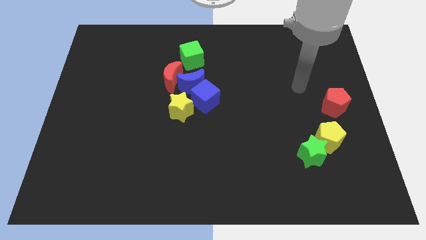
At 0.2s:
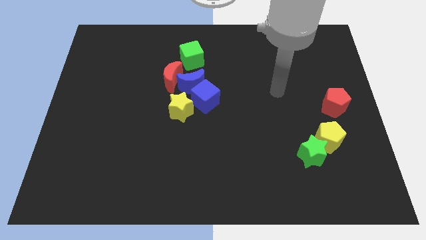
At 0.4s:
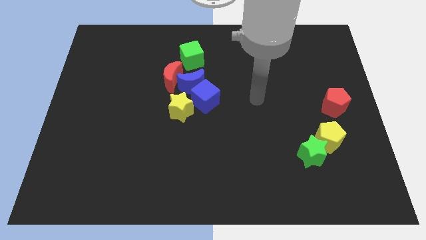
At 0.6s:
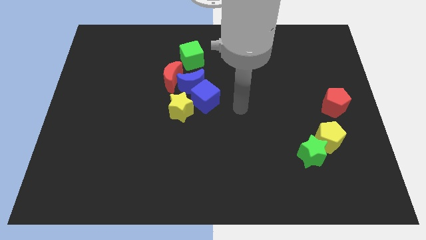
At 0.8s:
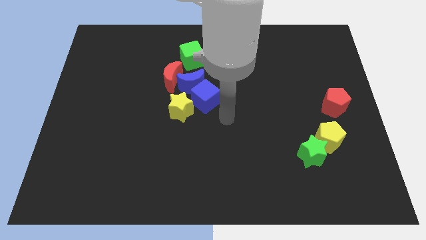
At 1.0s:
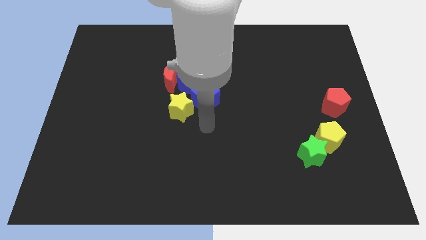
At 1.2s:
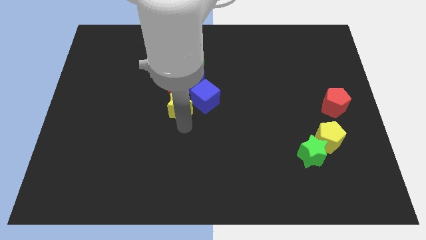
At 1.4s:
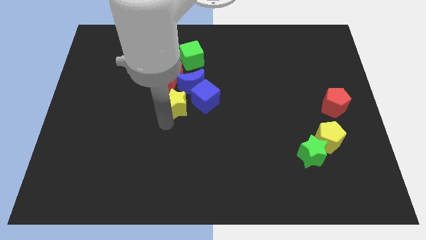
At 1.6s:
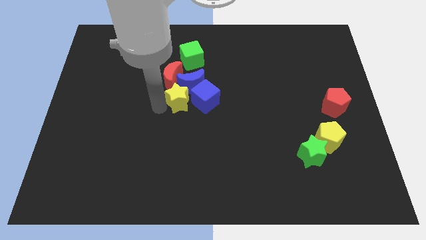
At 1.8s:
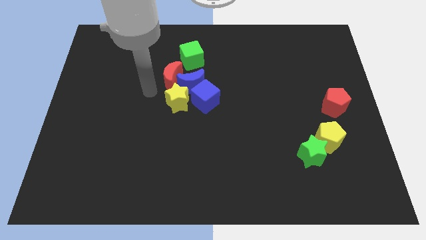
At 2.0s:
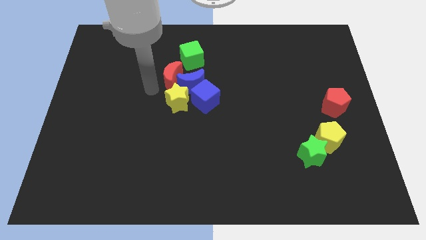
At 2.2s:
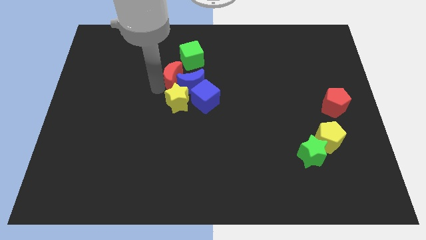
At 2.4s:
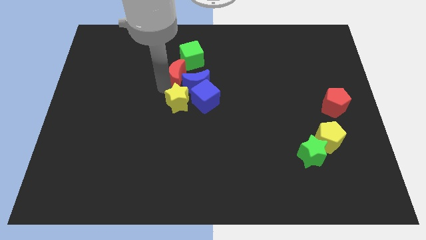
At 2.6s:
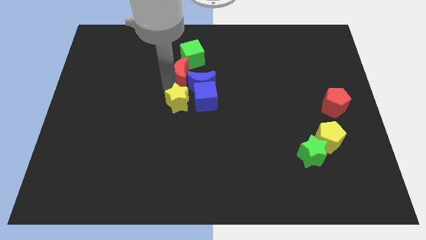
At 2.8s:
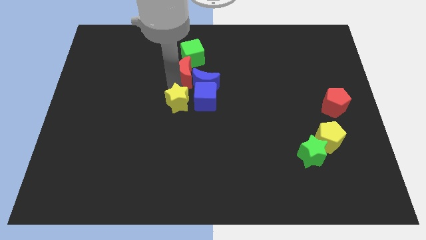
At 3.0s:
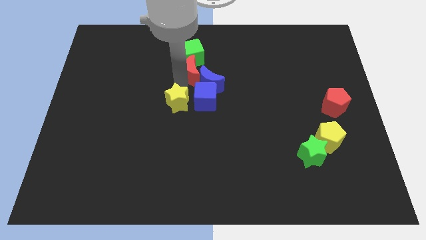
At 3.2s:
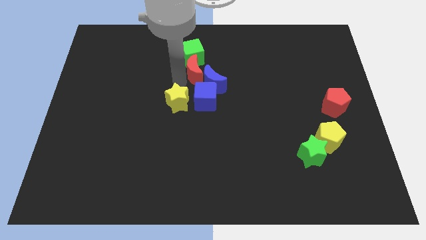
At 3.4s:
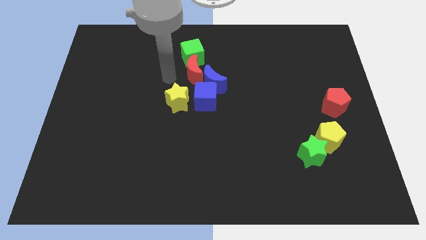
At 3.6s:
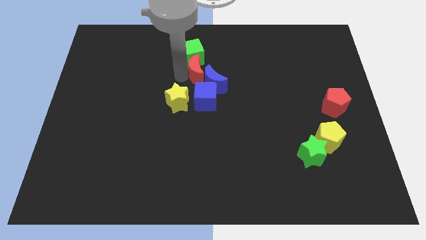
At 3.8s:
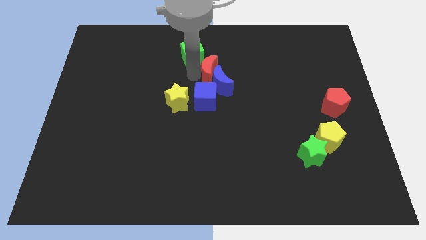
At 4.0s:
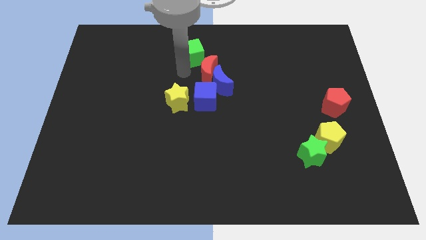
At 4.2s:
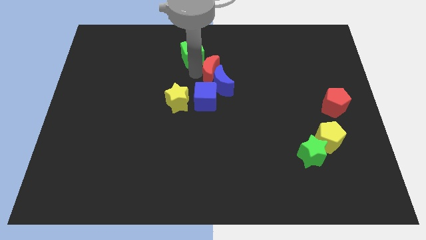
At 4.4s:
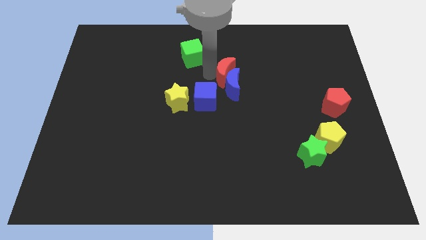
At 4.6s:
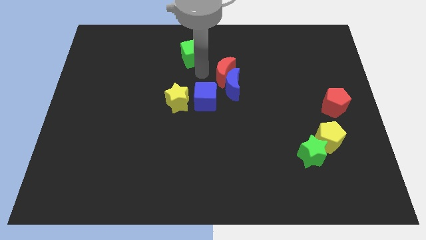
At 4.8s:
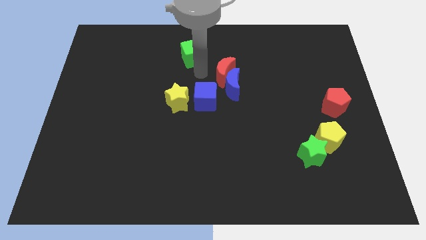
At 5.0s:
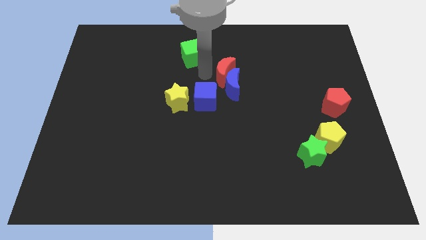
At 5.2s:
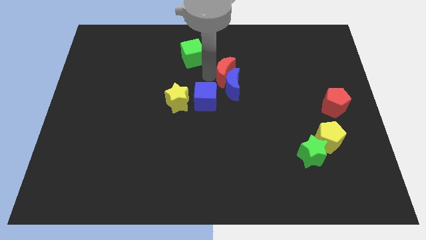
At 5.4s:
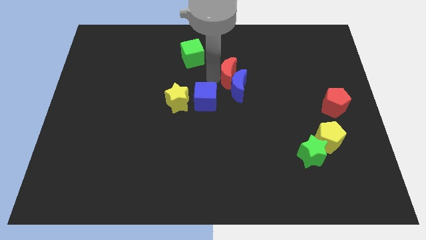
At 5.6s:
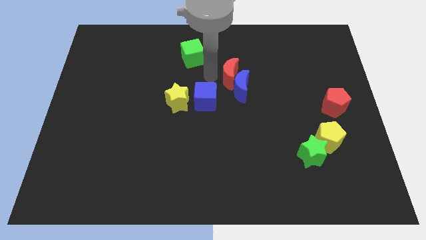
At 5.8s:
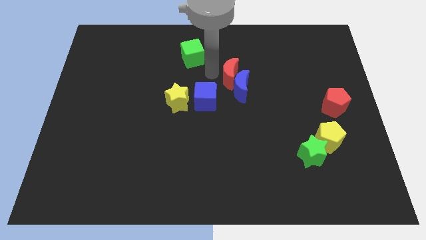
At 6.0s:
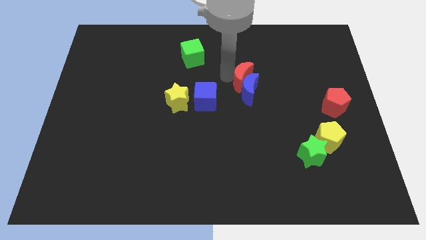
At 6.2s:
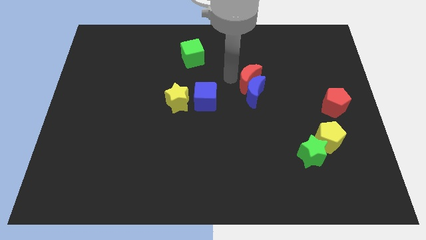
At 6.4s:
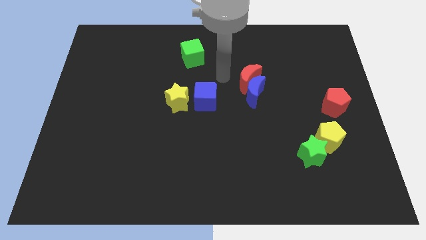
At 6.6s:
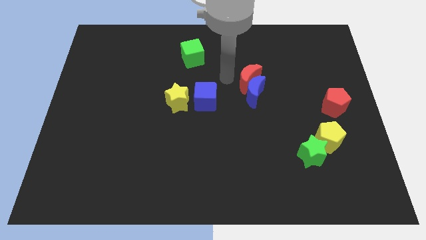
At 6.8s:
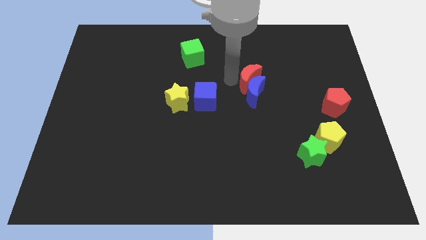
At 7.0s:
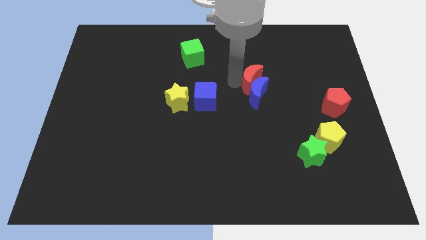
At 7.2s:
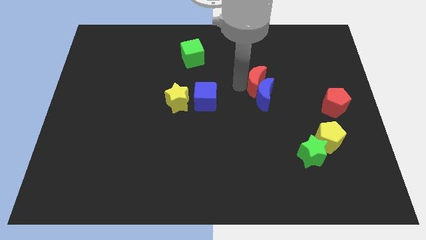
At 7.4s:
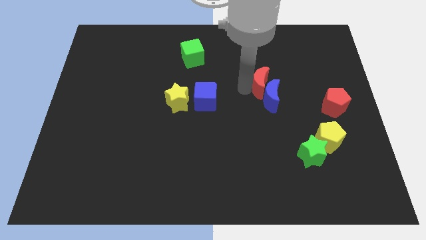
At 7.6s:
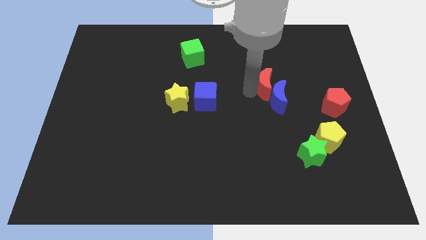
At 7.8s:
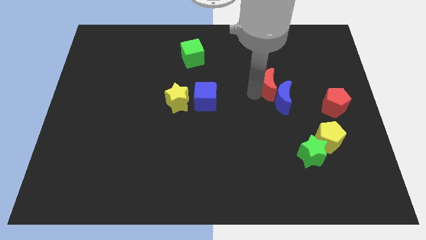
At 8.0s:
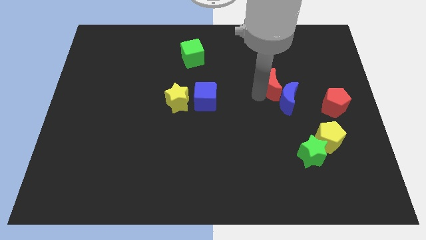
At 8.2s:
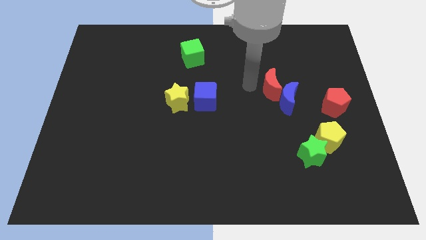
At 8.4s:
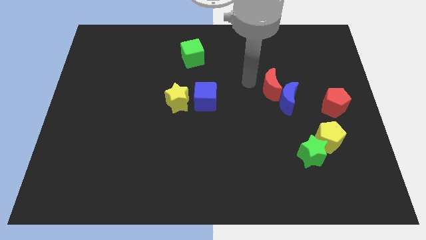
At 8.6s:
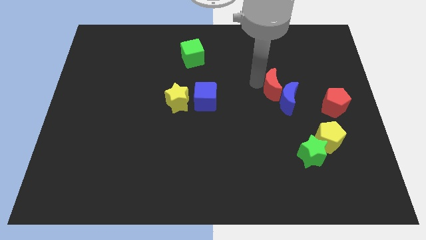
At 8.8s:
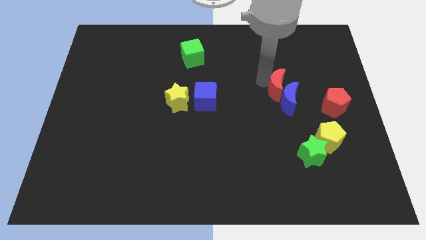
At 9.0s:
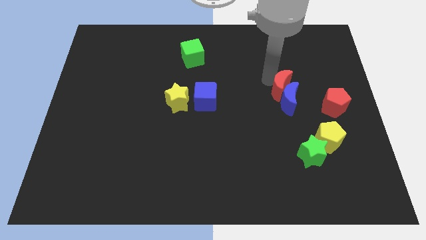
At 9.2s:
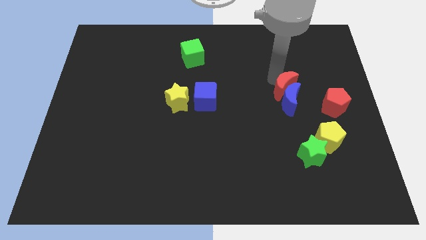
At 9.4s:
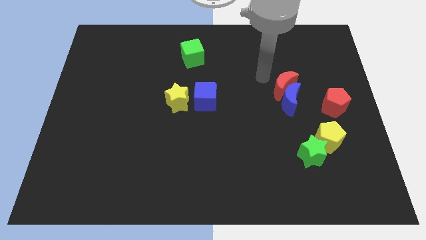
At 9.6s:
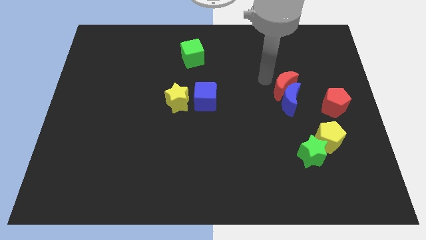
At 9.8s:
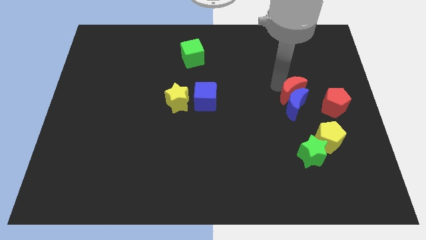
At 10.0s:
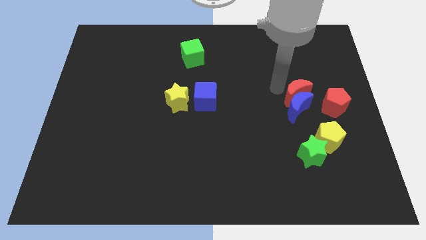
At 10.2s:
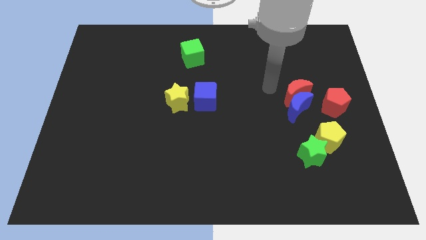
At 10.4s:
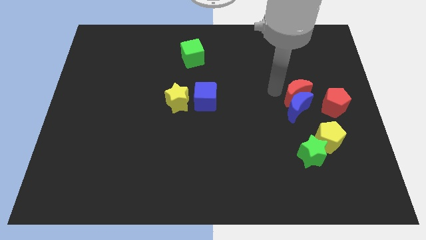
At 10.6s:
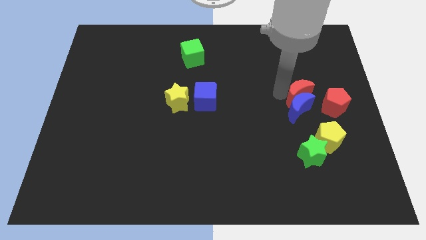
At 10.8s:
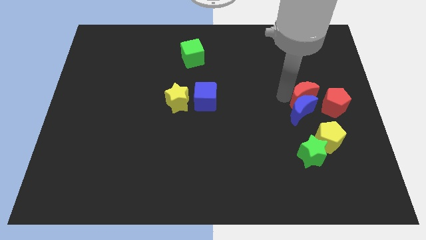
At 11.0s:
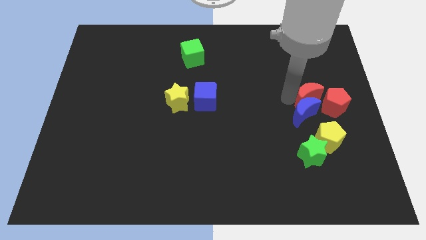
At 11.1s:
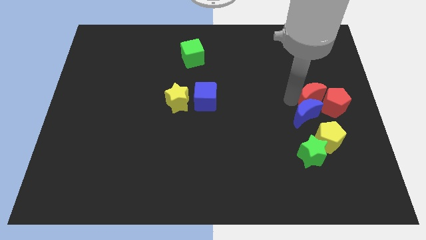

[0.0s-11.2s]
push the red moon close to the red pentagon

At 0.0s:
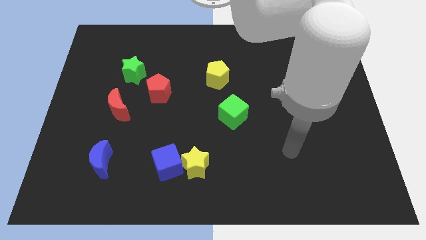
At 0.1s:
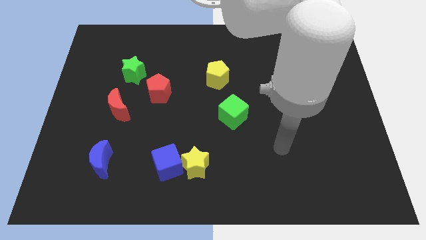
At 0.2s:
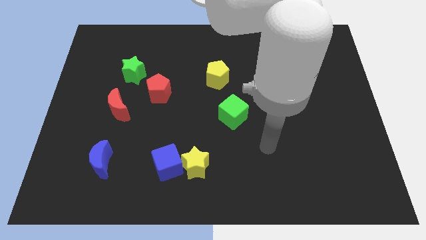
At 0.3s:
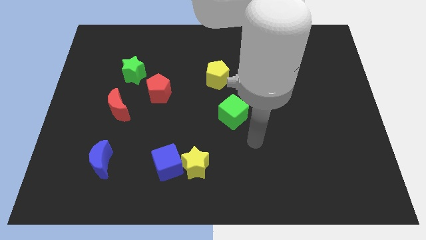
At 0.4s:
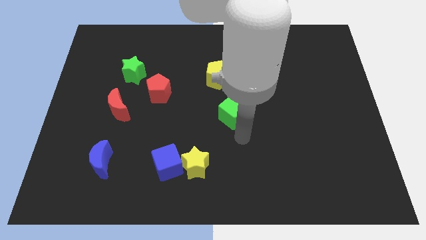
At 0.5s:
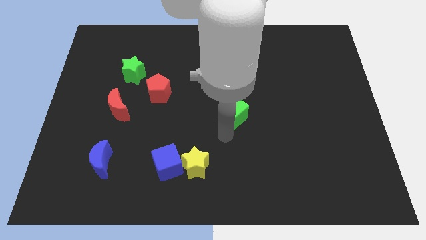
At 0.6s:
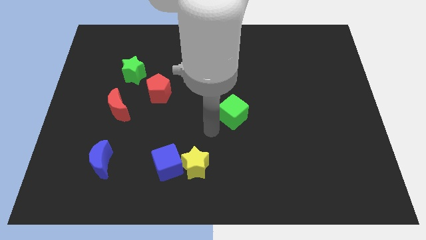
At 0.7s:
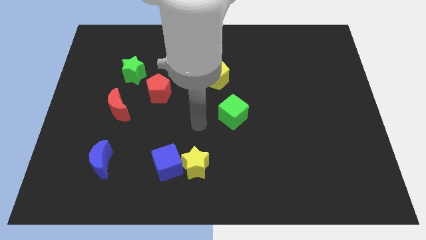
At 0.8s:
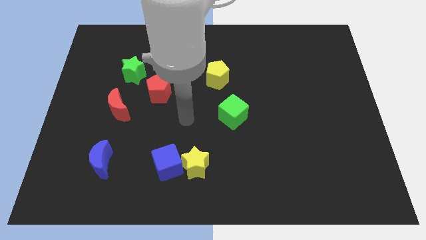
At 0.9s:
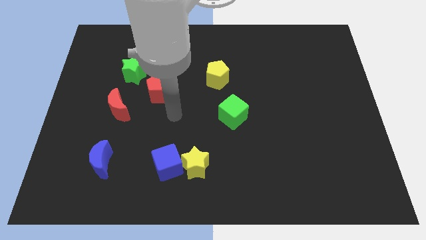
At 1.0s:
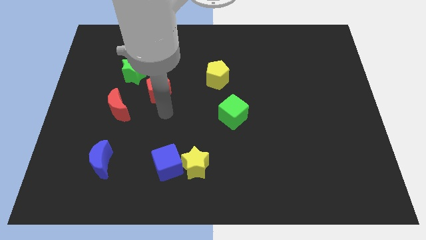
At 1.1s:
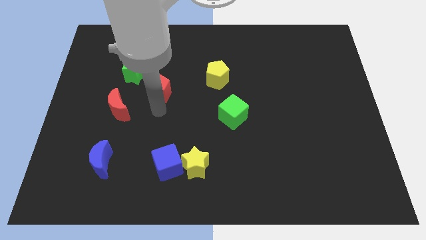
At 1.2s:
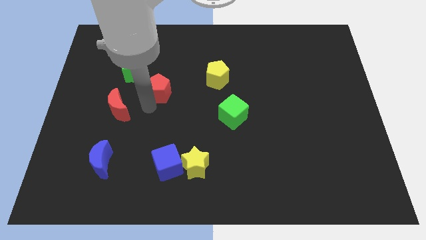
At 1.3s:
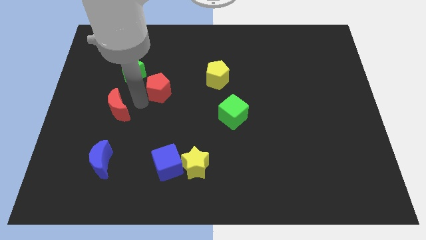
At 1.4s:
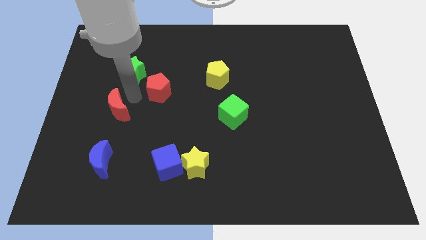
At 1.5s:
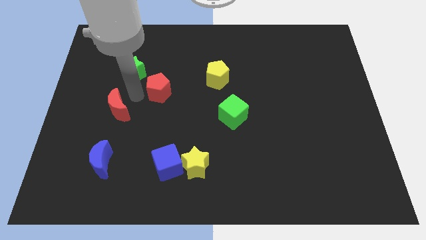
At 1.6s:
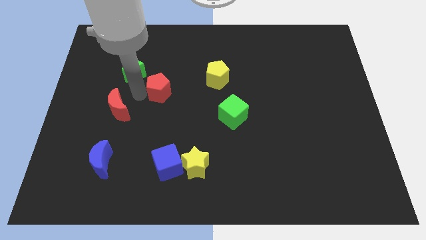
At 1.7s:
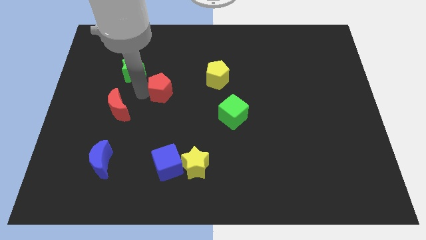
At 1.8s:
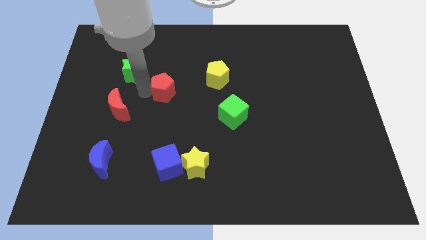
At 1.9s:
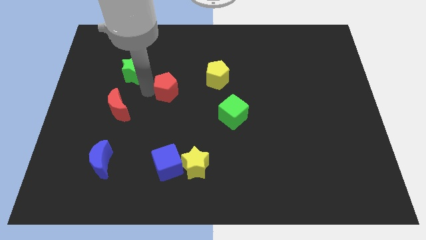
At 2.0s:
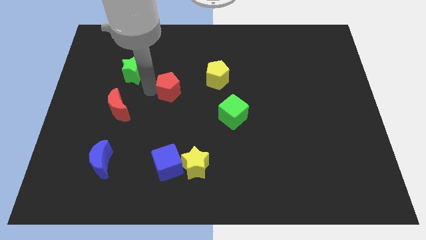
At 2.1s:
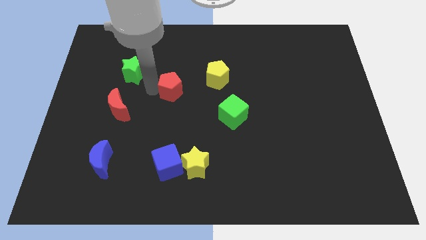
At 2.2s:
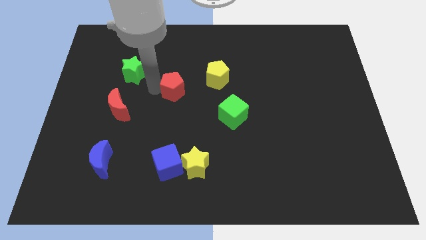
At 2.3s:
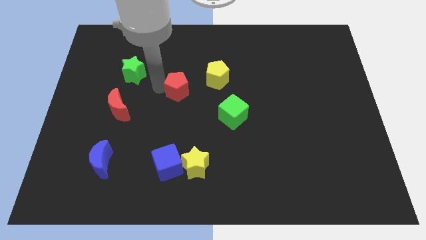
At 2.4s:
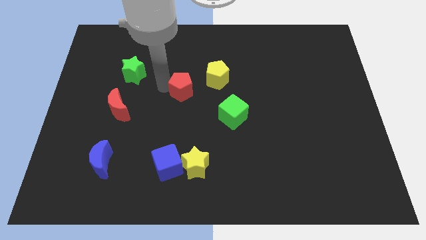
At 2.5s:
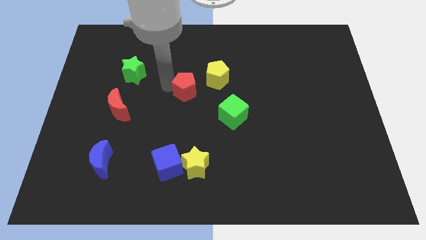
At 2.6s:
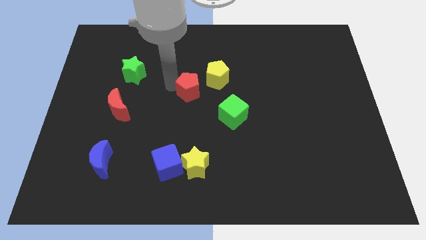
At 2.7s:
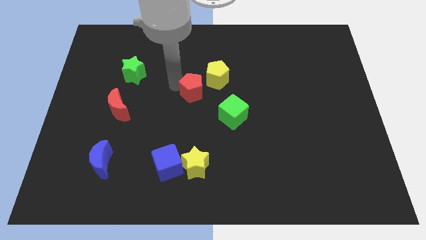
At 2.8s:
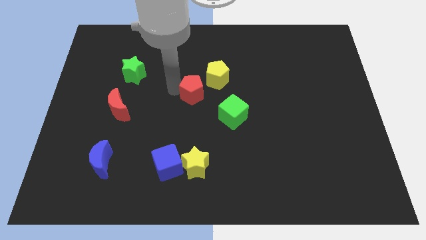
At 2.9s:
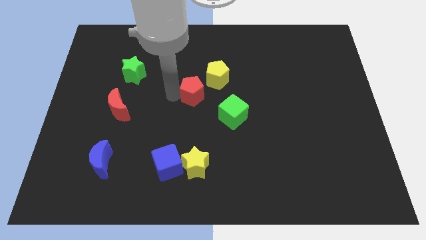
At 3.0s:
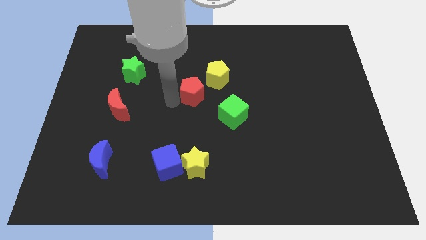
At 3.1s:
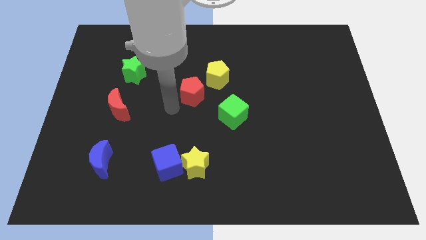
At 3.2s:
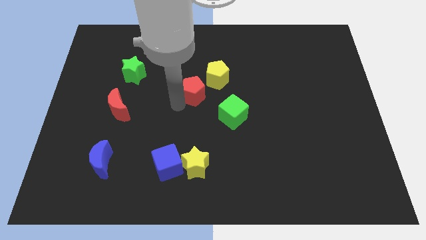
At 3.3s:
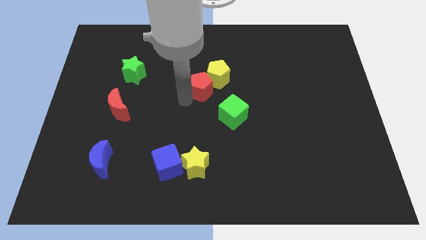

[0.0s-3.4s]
move the red pentagon close to the yellow pentagon
